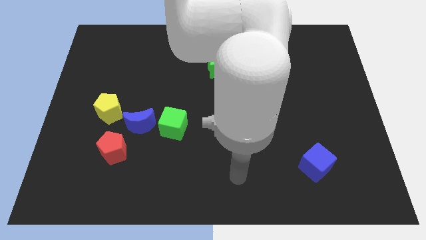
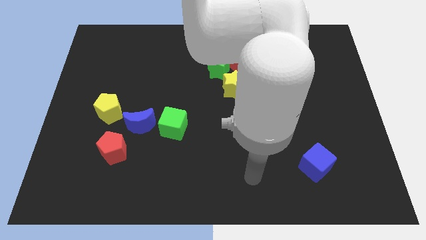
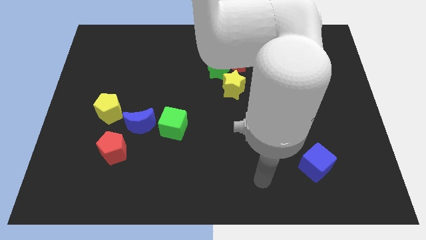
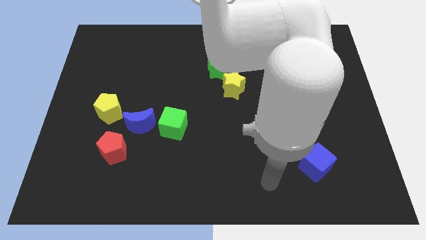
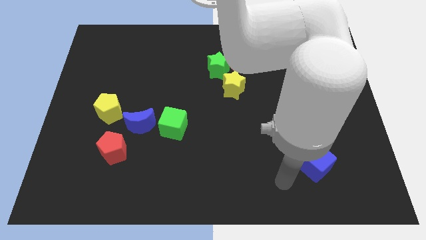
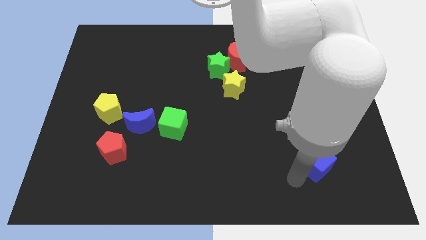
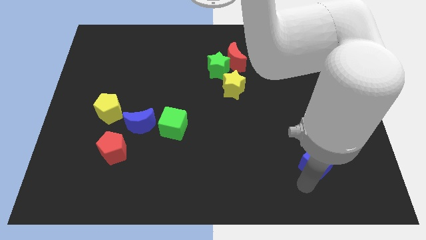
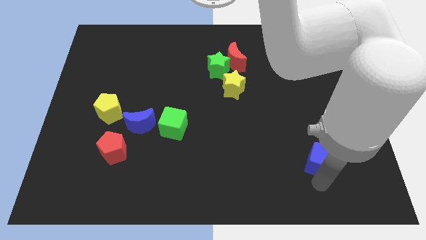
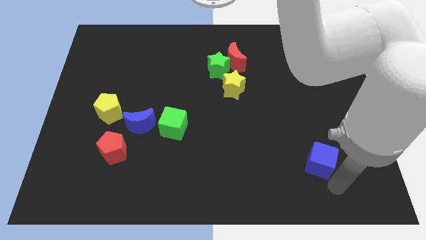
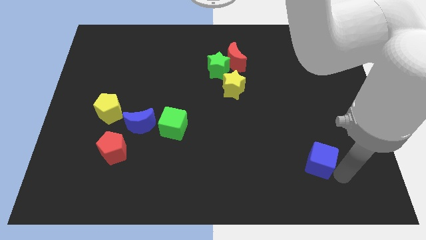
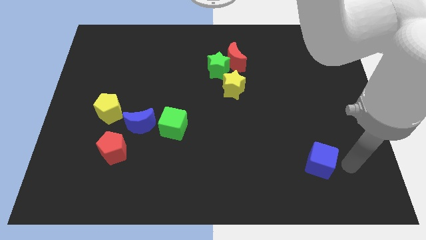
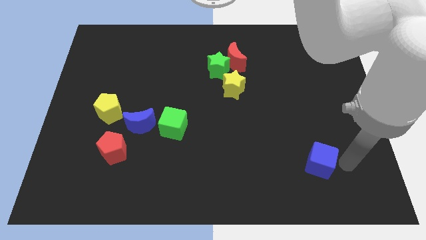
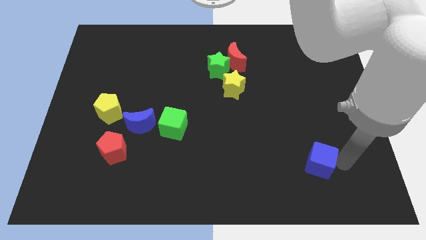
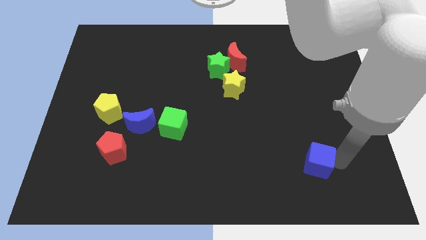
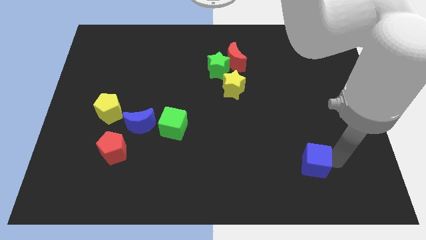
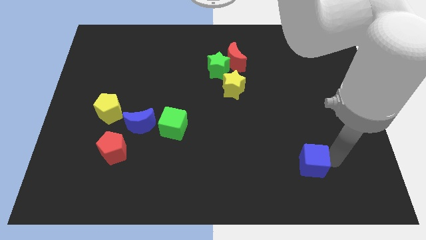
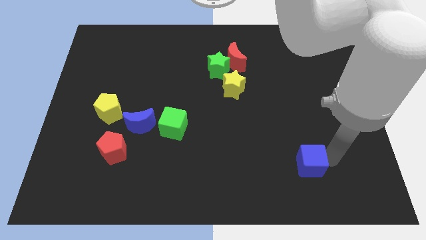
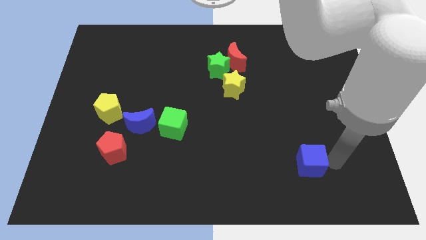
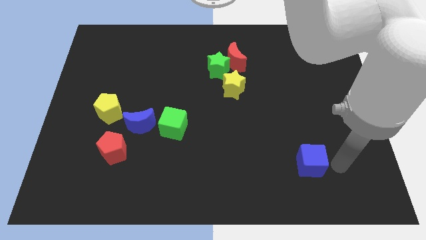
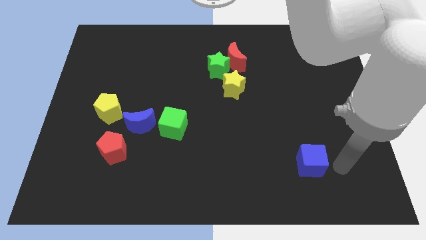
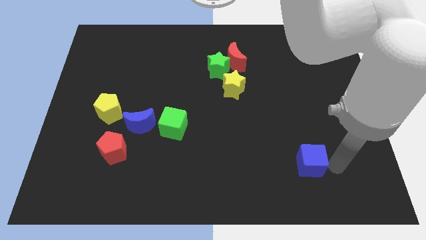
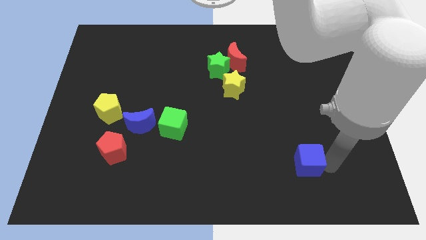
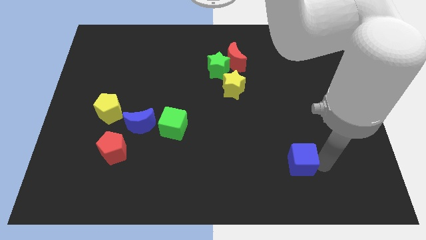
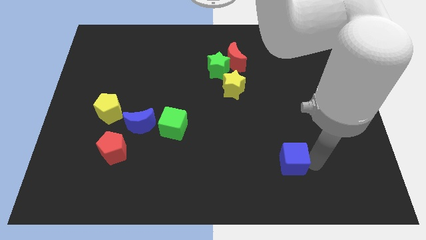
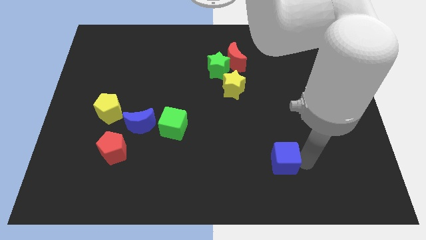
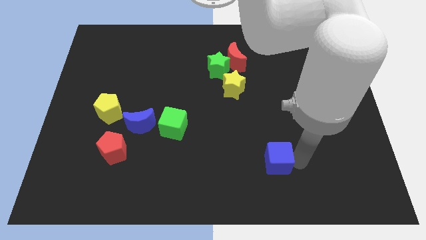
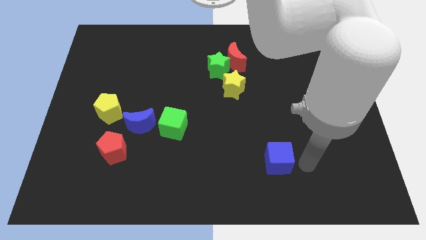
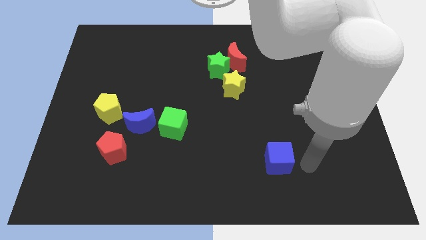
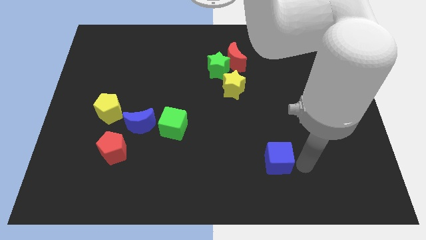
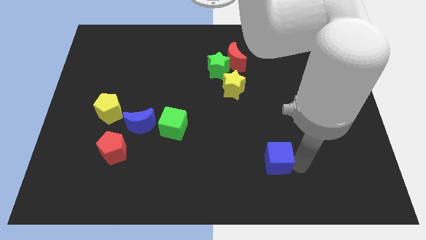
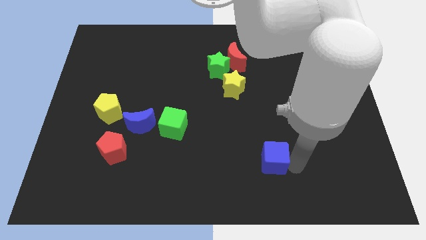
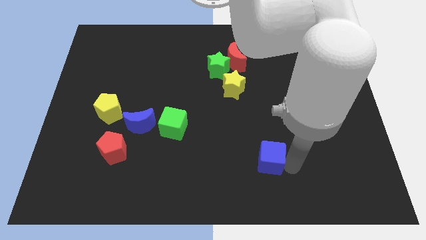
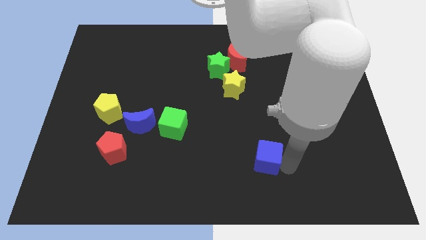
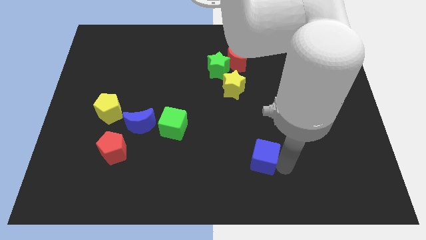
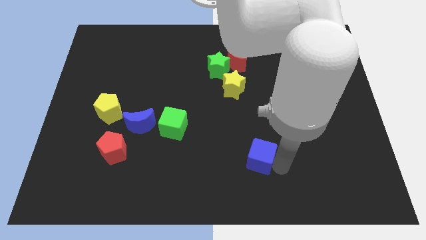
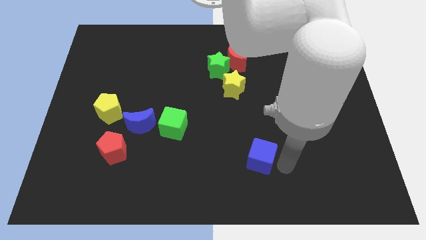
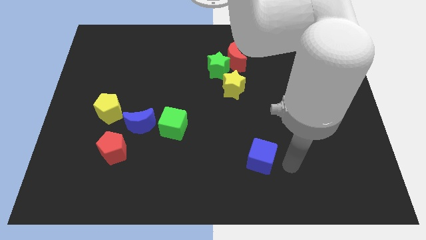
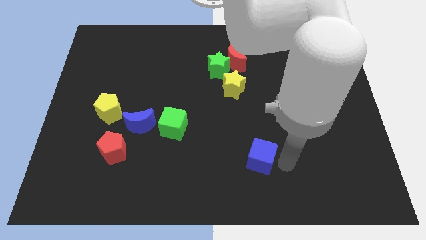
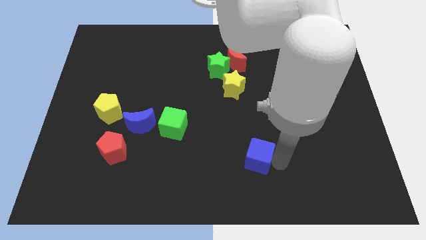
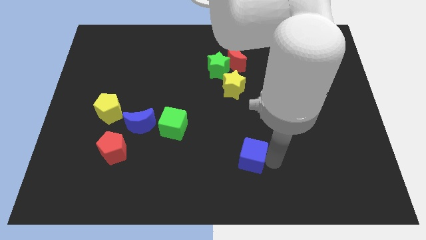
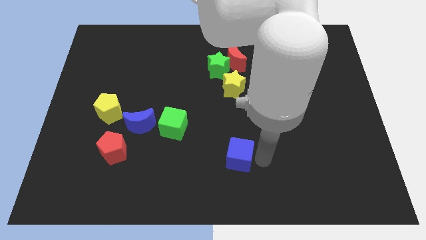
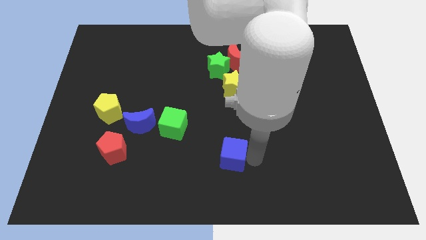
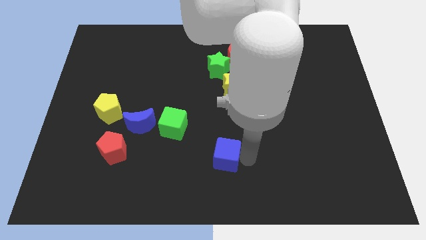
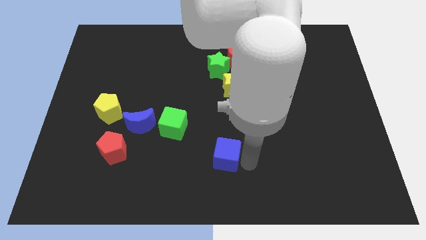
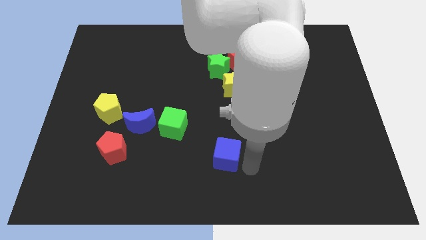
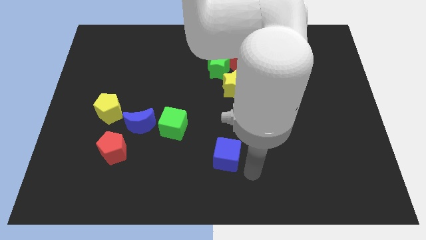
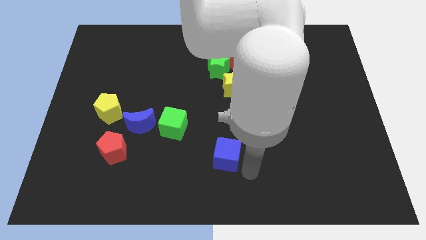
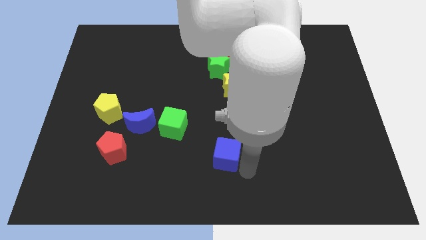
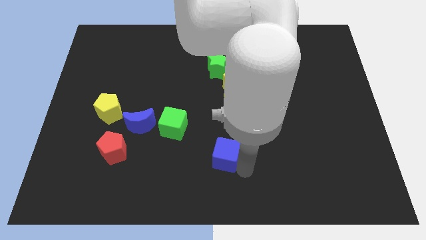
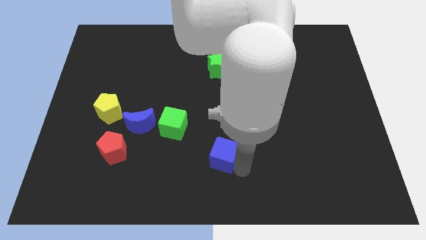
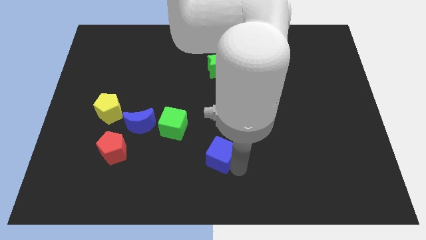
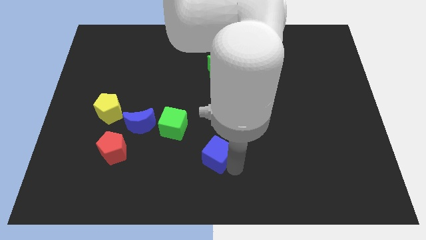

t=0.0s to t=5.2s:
move the blue cube diagonally down and to the right of the green cube

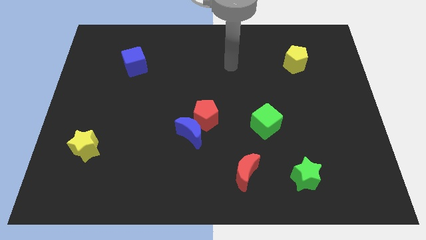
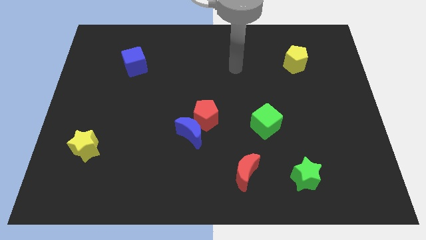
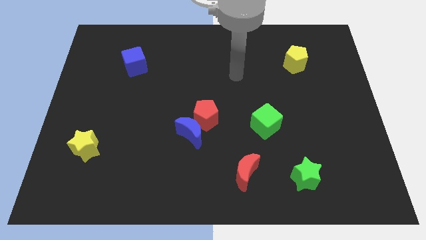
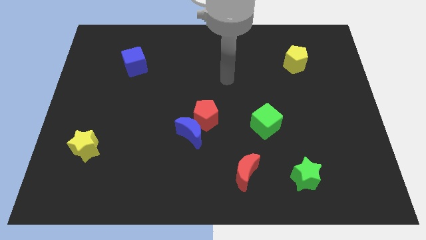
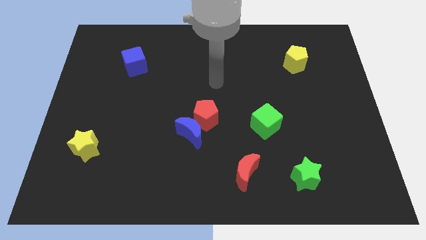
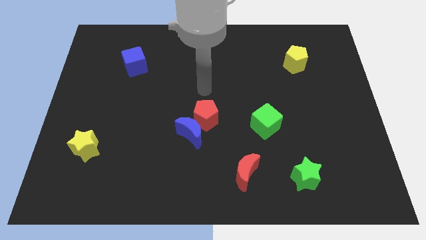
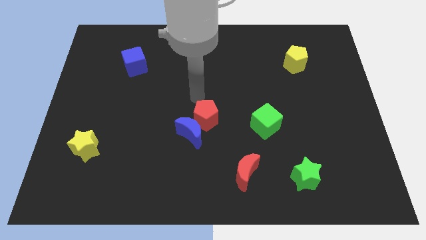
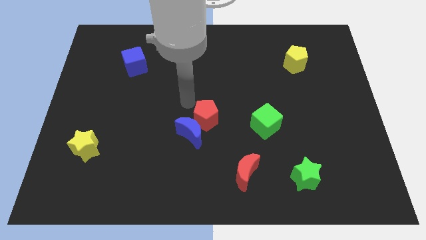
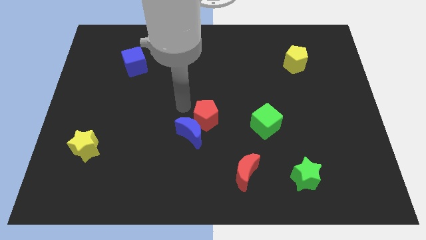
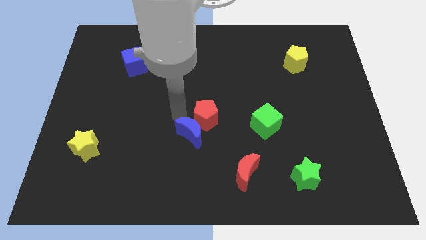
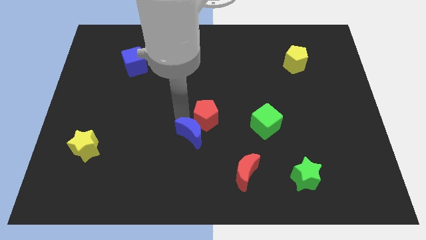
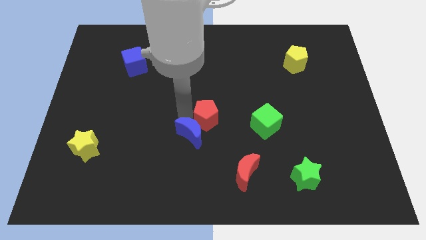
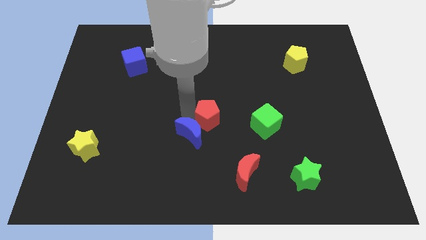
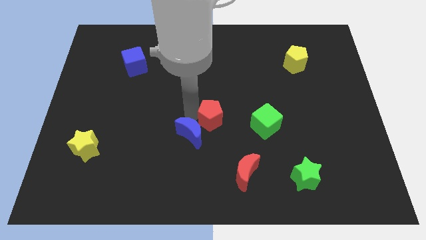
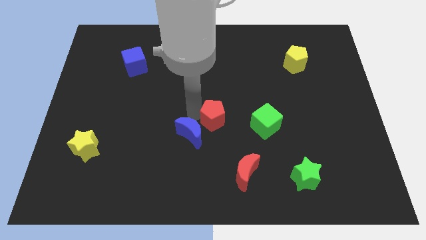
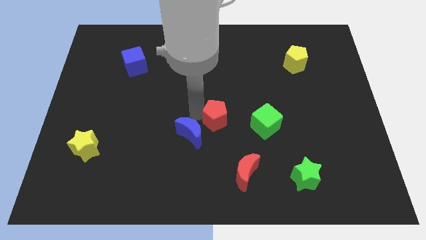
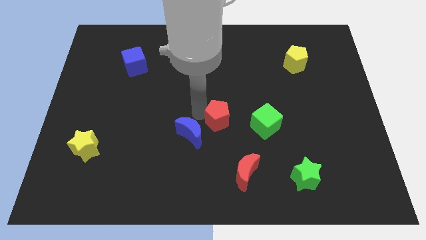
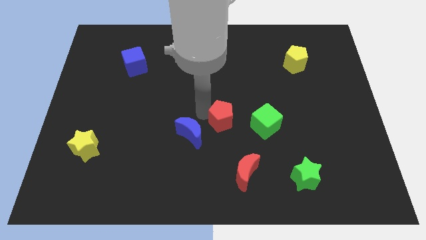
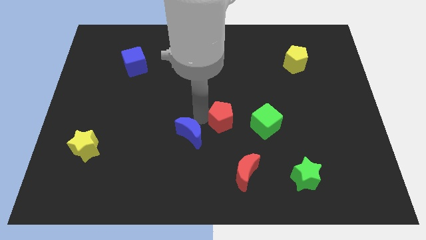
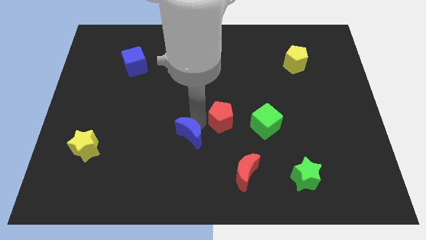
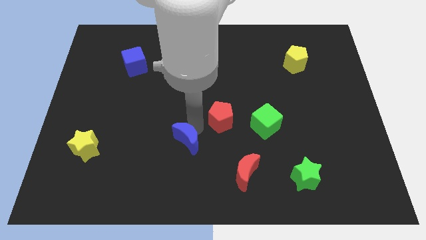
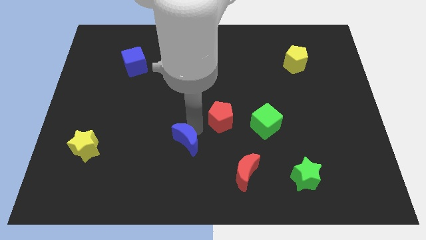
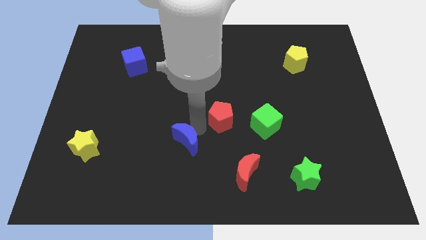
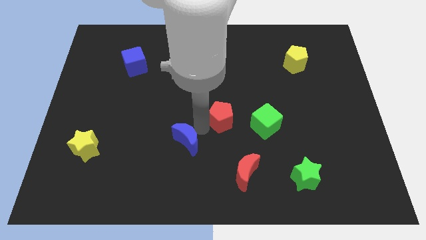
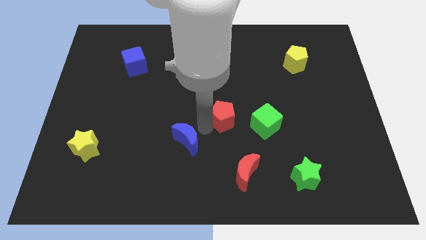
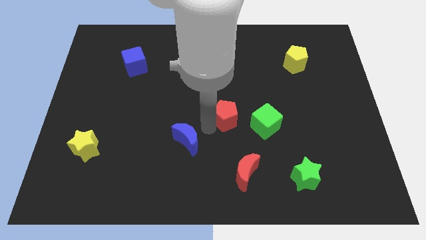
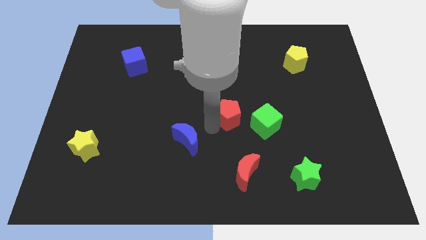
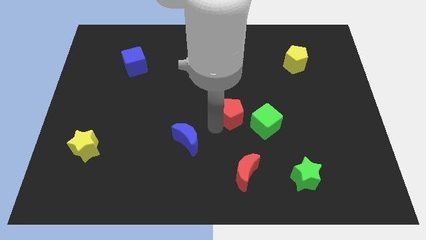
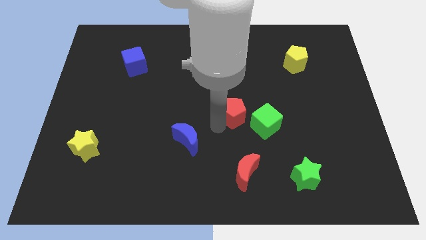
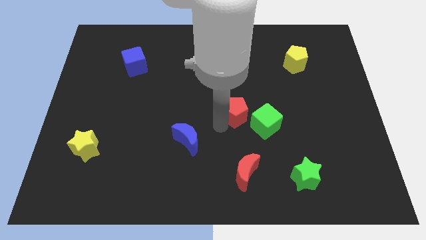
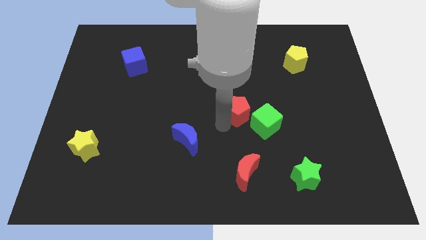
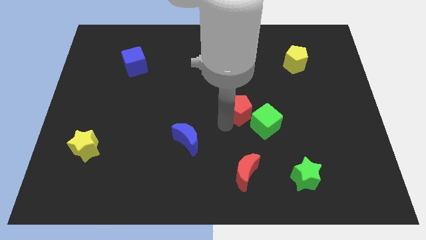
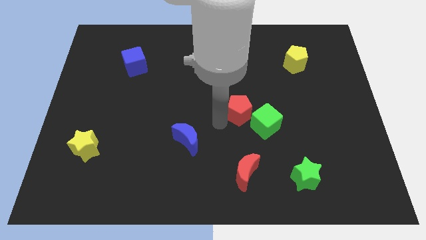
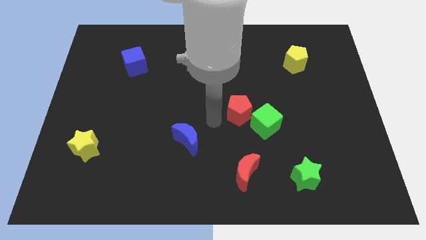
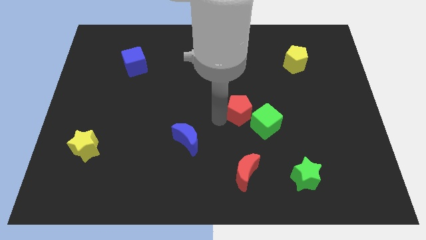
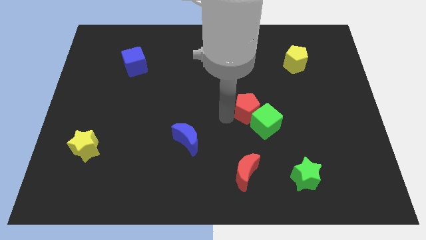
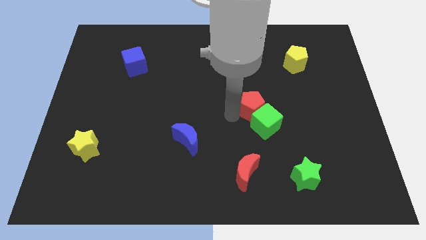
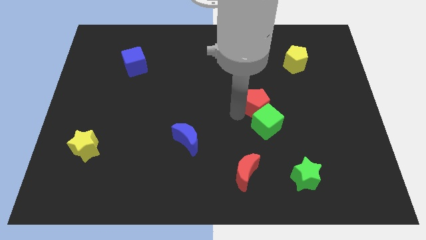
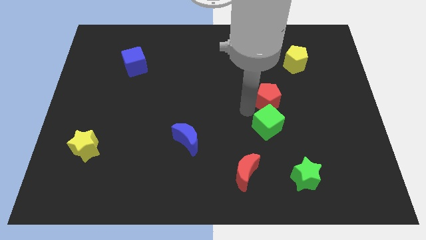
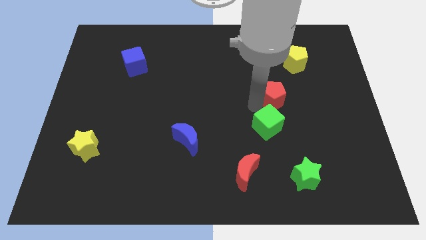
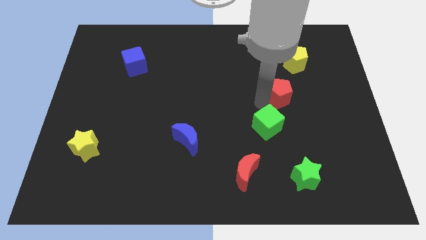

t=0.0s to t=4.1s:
push the red pentagon to the bottom of the yellow pentagon
